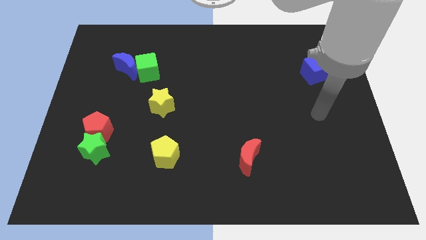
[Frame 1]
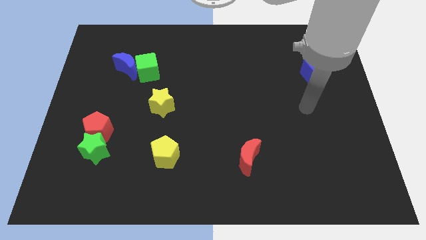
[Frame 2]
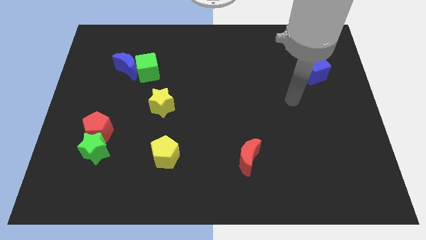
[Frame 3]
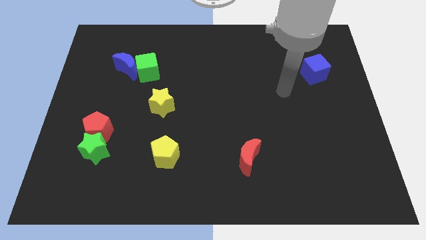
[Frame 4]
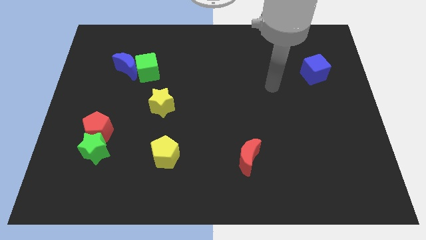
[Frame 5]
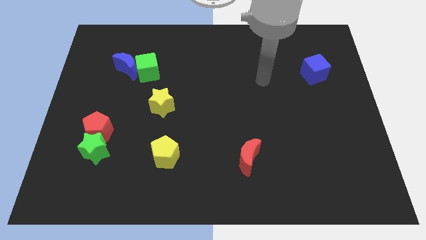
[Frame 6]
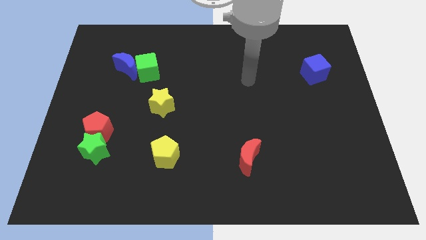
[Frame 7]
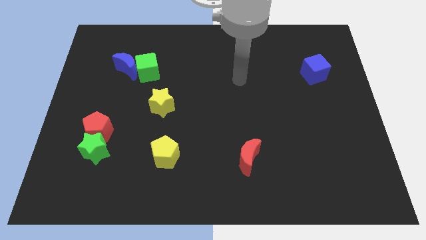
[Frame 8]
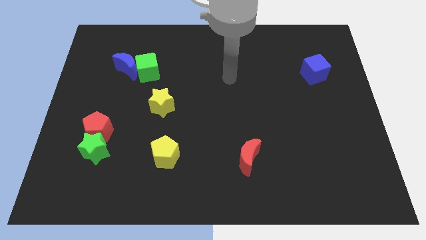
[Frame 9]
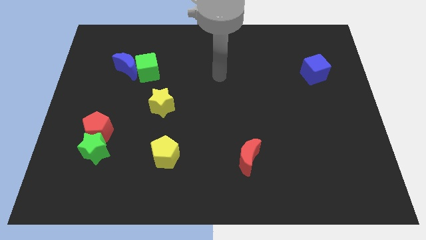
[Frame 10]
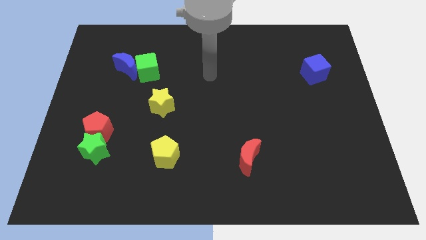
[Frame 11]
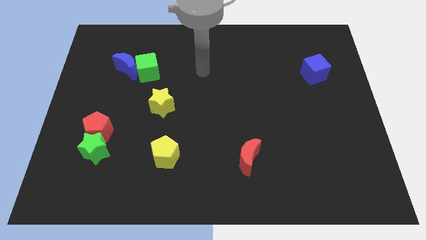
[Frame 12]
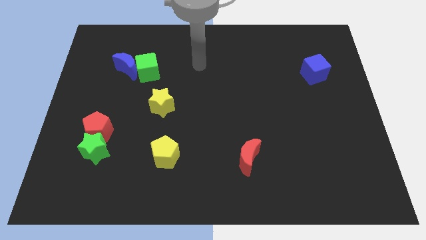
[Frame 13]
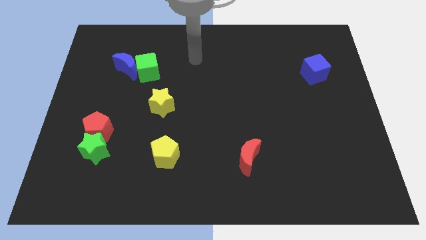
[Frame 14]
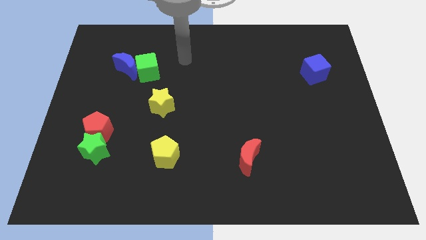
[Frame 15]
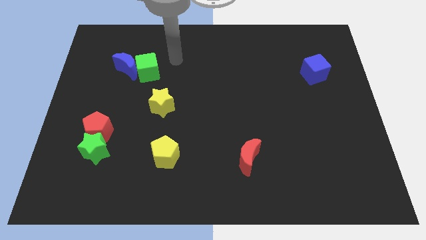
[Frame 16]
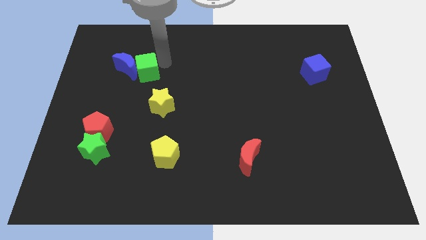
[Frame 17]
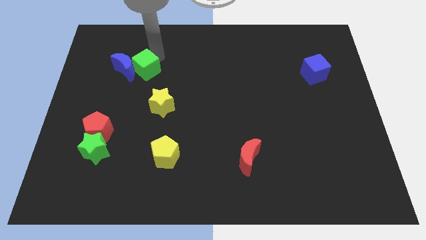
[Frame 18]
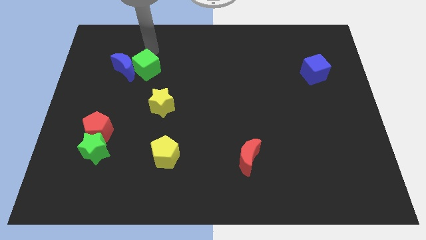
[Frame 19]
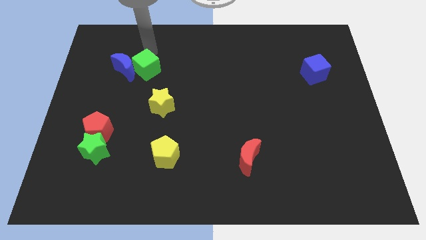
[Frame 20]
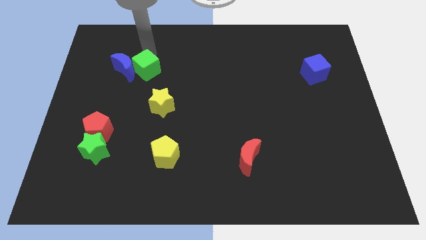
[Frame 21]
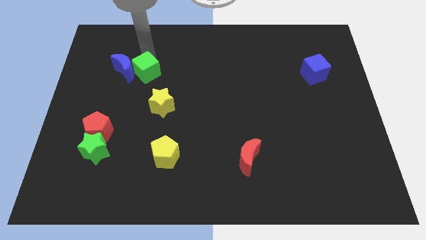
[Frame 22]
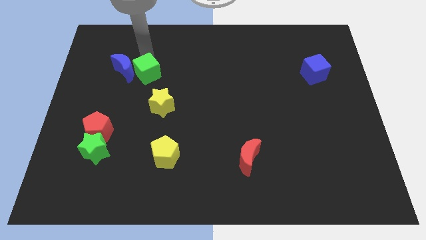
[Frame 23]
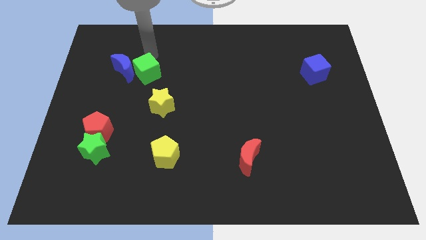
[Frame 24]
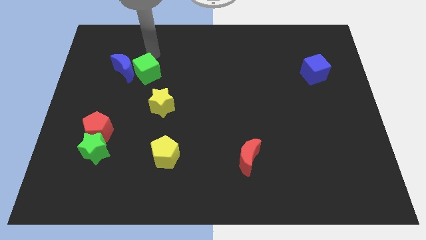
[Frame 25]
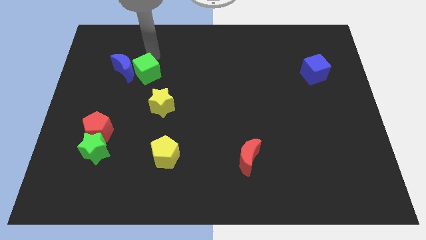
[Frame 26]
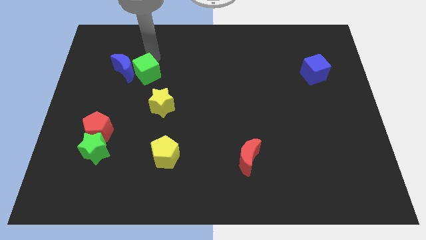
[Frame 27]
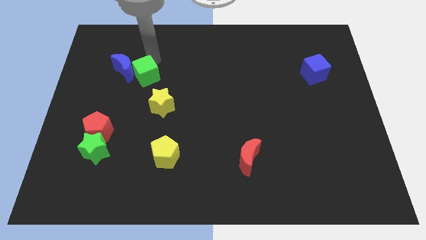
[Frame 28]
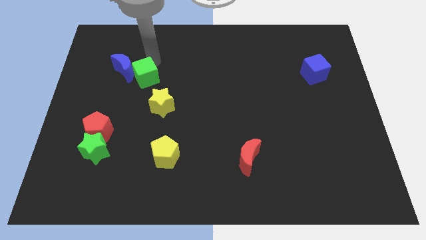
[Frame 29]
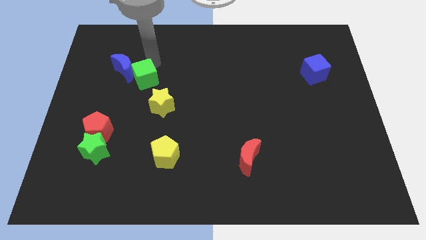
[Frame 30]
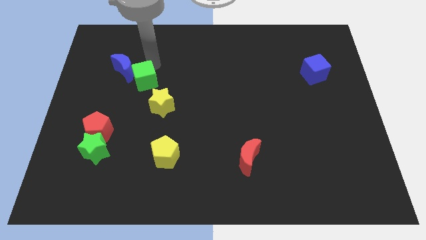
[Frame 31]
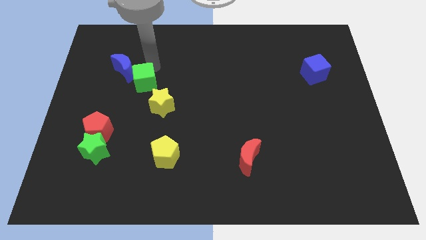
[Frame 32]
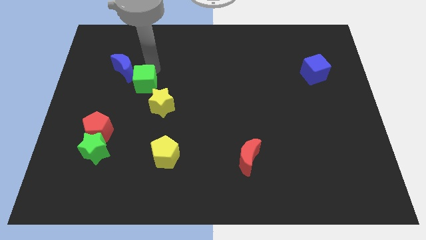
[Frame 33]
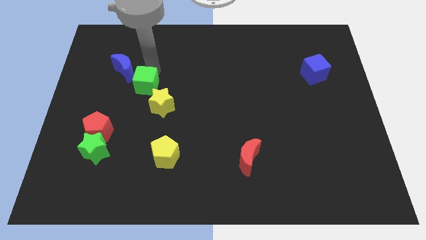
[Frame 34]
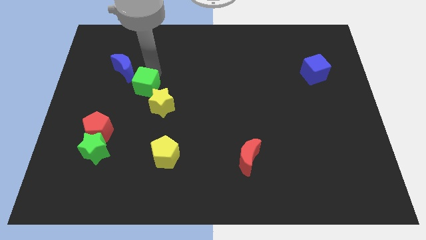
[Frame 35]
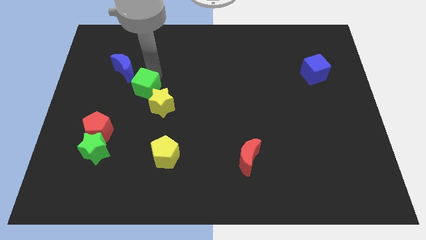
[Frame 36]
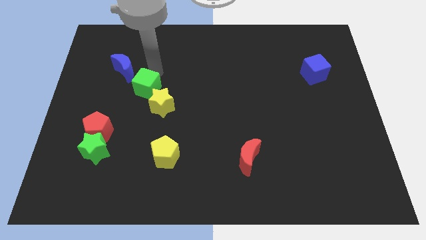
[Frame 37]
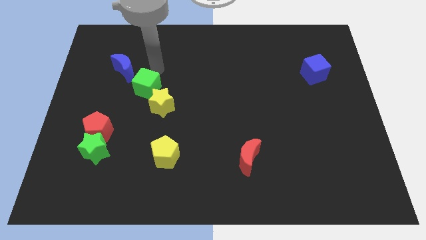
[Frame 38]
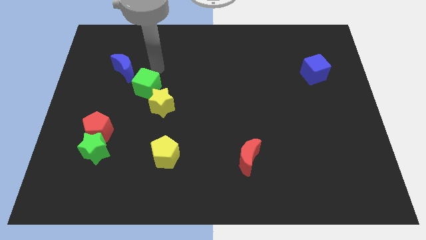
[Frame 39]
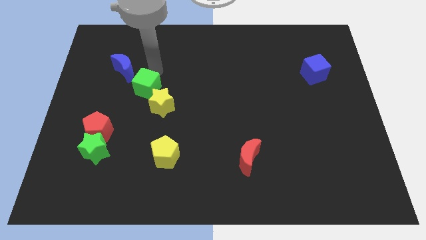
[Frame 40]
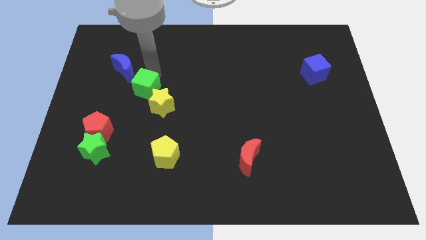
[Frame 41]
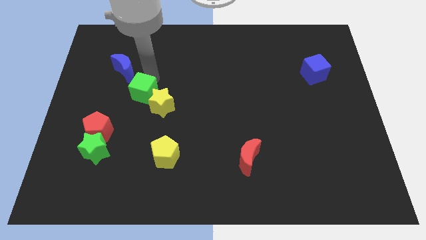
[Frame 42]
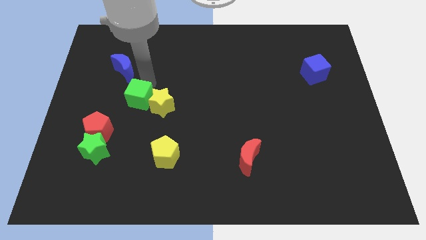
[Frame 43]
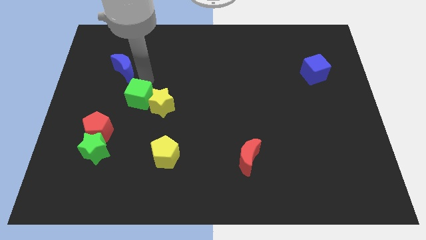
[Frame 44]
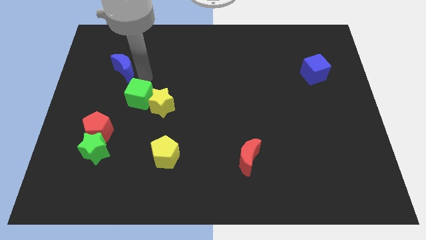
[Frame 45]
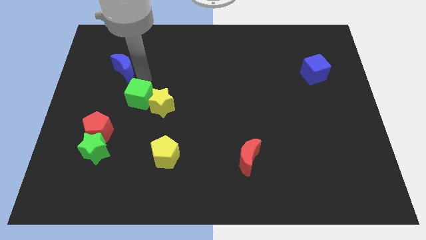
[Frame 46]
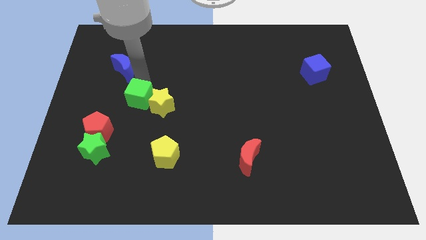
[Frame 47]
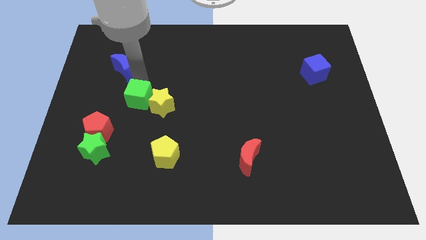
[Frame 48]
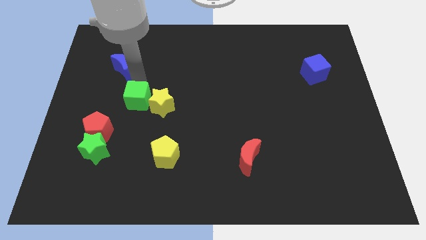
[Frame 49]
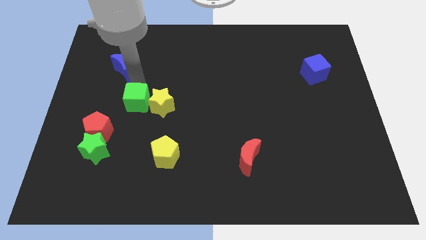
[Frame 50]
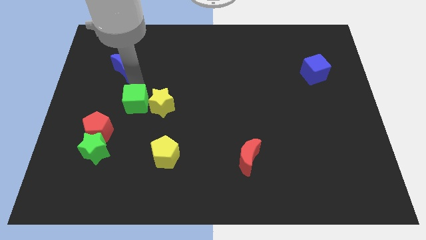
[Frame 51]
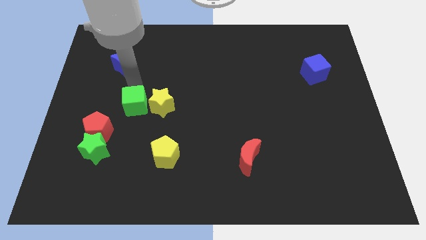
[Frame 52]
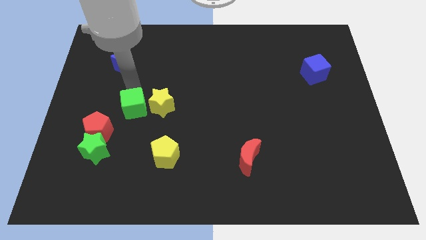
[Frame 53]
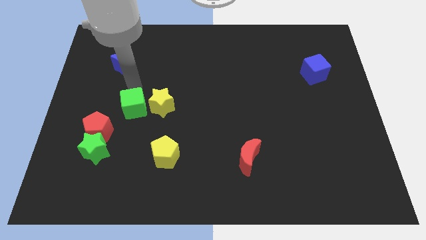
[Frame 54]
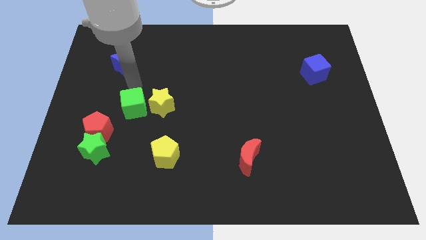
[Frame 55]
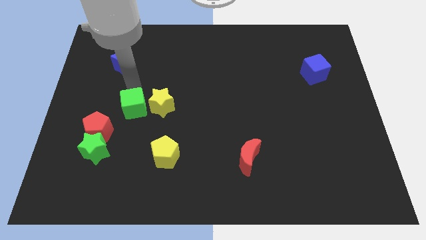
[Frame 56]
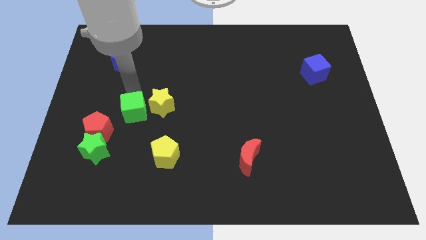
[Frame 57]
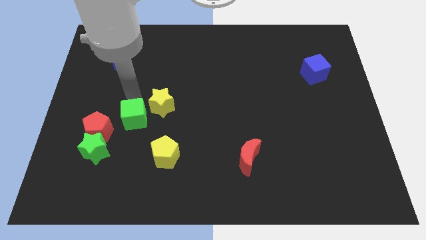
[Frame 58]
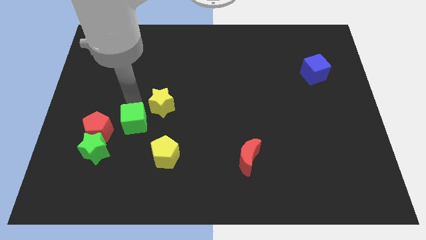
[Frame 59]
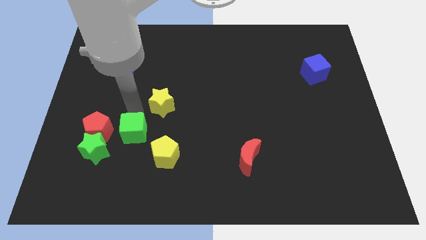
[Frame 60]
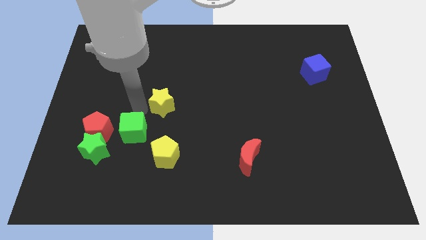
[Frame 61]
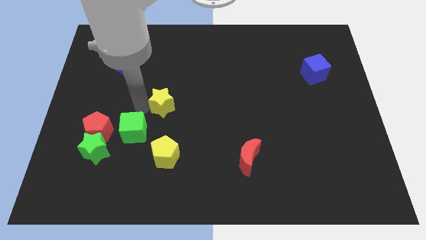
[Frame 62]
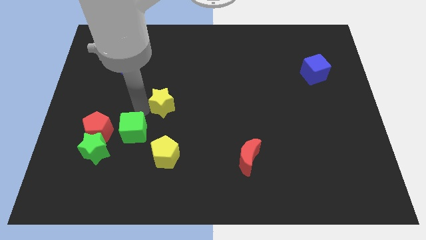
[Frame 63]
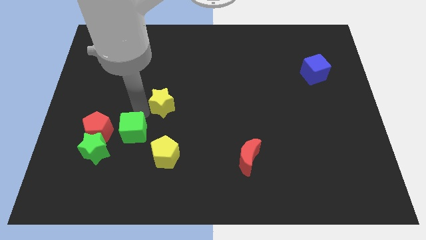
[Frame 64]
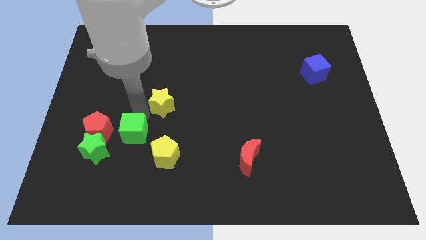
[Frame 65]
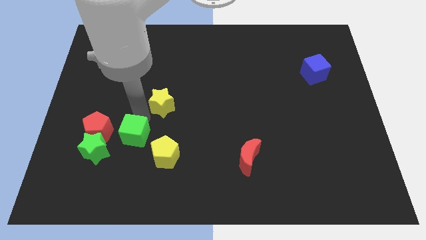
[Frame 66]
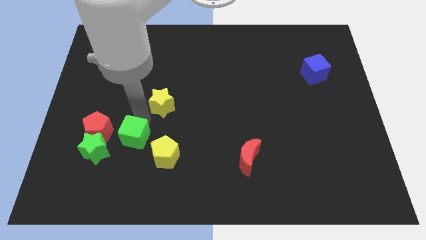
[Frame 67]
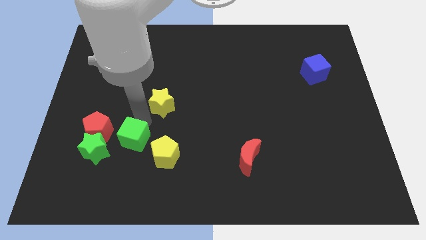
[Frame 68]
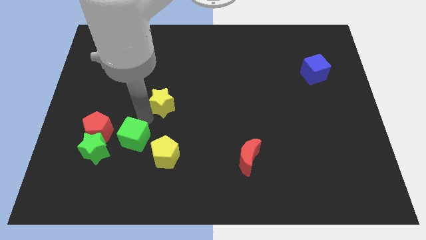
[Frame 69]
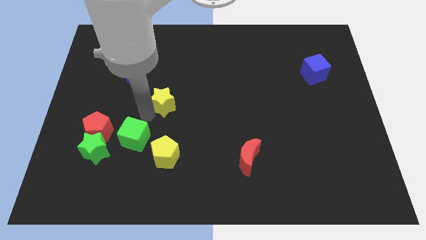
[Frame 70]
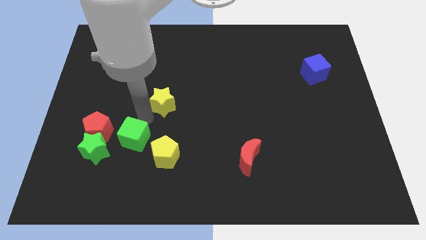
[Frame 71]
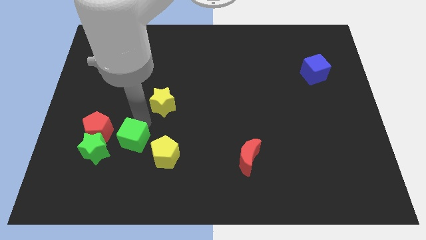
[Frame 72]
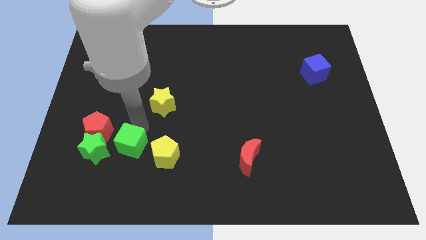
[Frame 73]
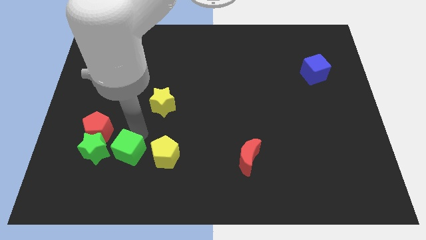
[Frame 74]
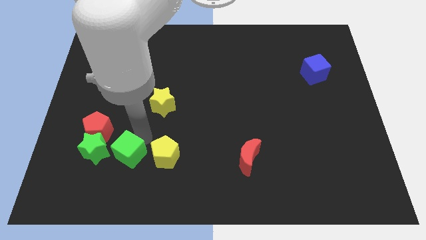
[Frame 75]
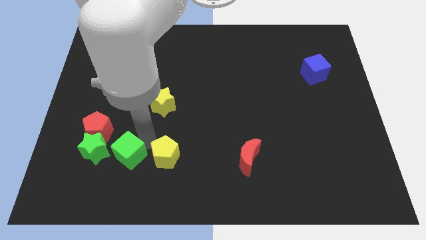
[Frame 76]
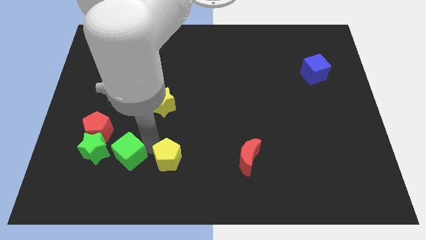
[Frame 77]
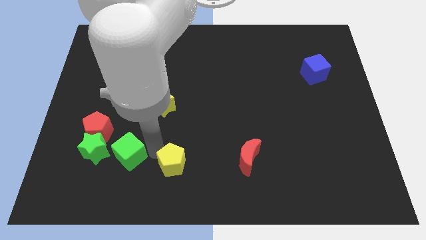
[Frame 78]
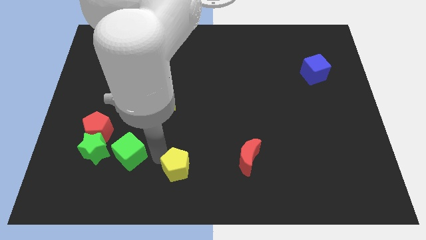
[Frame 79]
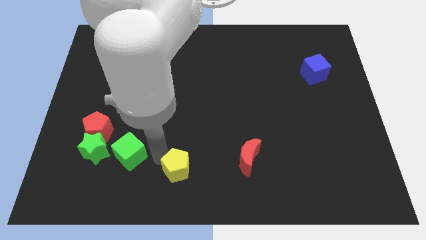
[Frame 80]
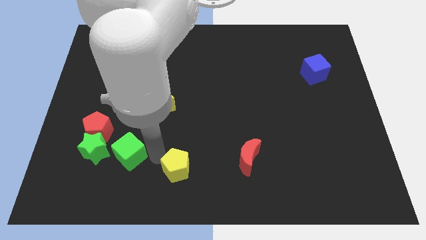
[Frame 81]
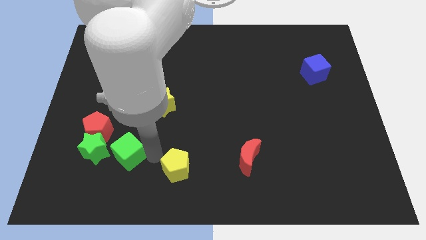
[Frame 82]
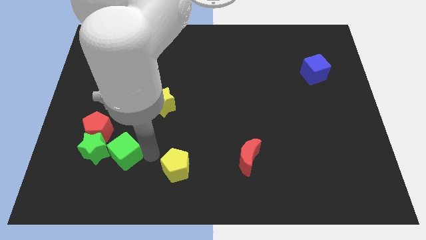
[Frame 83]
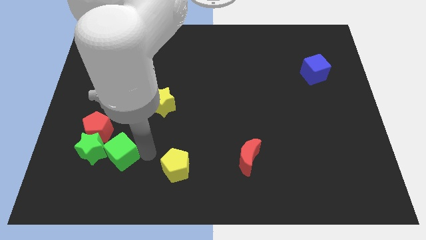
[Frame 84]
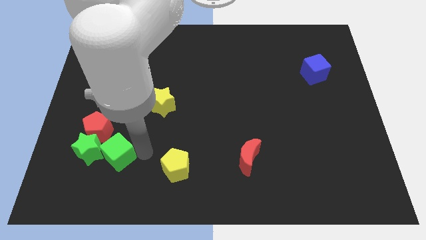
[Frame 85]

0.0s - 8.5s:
push the green cube close to the green star
